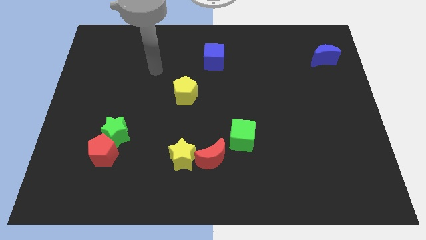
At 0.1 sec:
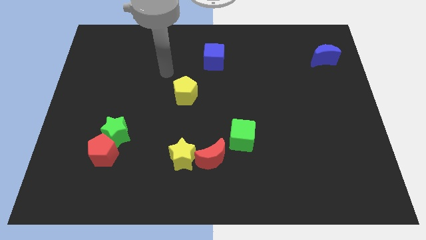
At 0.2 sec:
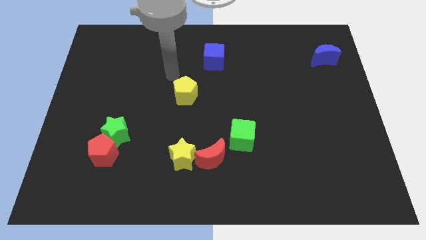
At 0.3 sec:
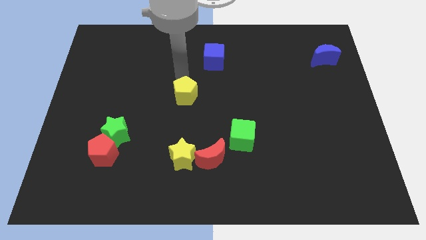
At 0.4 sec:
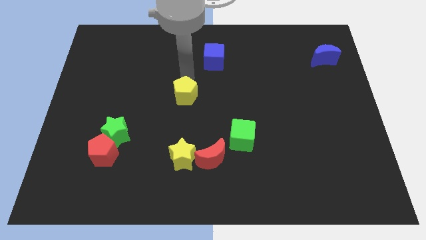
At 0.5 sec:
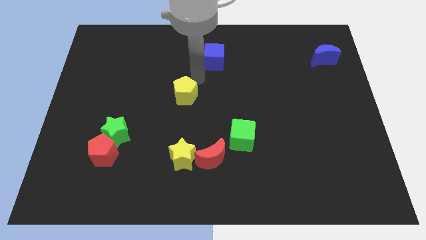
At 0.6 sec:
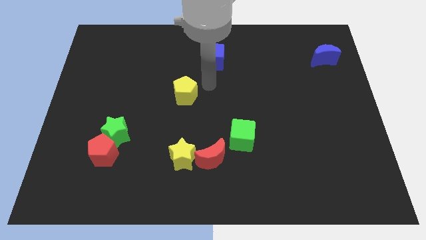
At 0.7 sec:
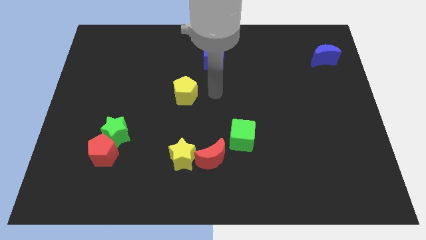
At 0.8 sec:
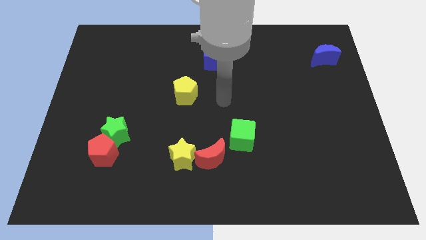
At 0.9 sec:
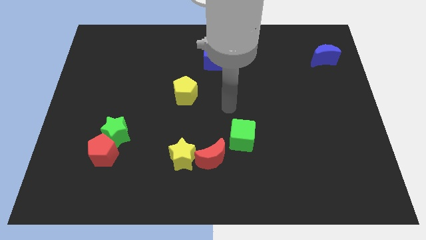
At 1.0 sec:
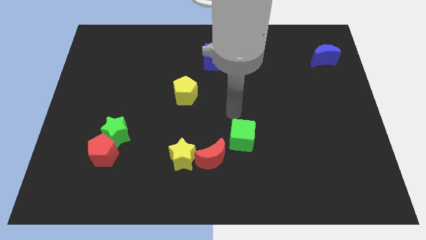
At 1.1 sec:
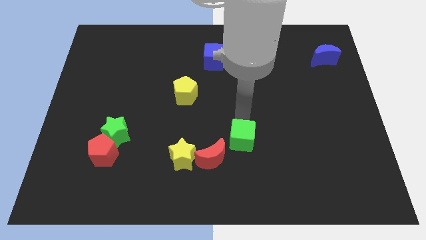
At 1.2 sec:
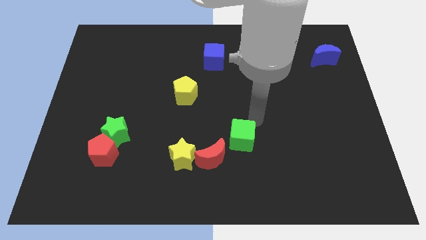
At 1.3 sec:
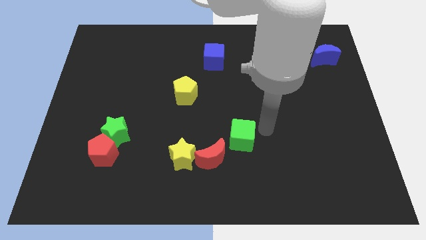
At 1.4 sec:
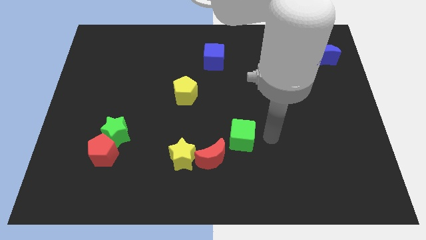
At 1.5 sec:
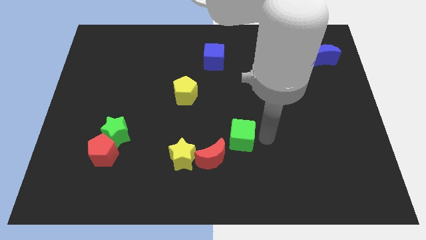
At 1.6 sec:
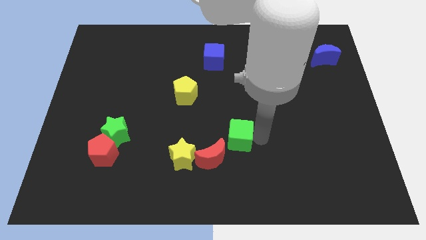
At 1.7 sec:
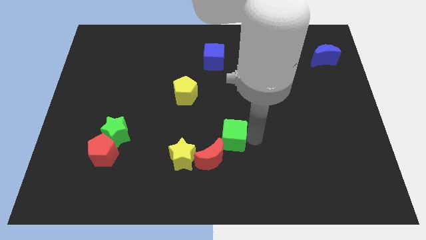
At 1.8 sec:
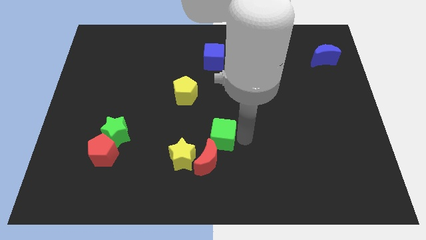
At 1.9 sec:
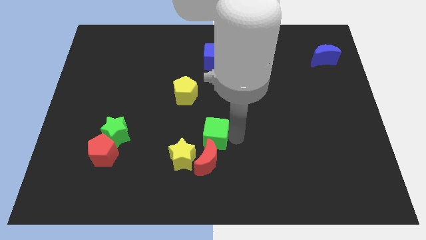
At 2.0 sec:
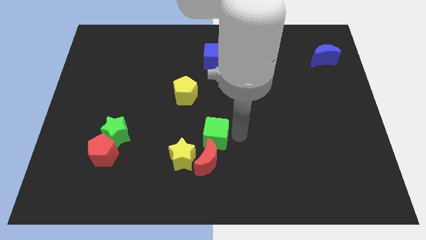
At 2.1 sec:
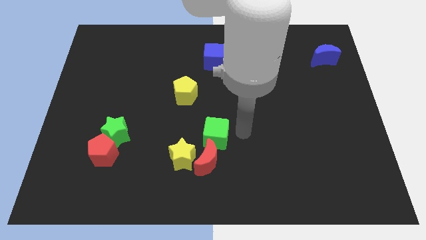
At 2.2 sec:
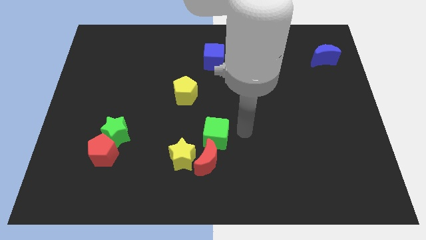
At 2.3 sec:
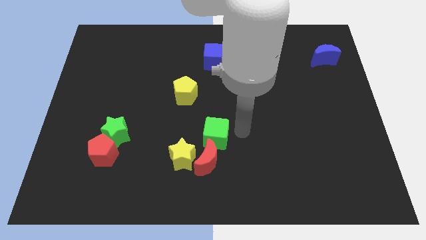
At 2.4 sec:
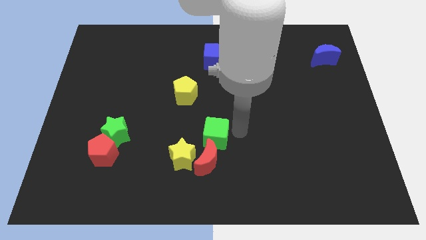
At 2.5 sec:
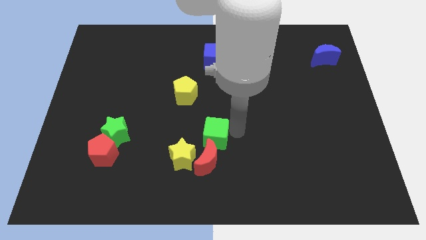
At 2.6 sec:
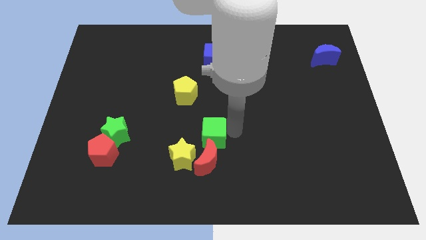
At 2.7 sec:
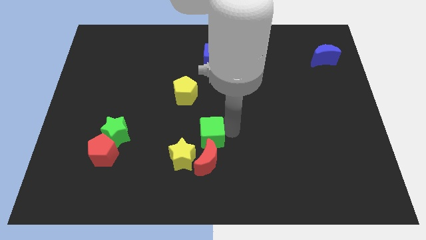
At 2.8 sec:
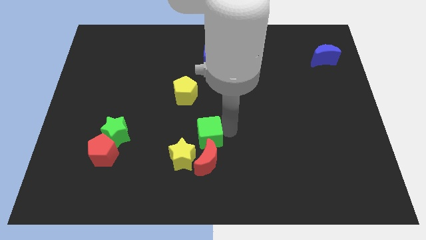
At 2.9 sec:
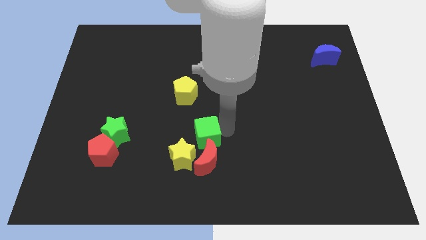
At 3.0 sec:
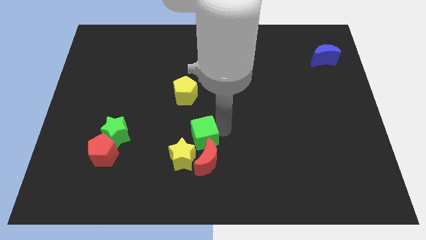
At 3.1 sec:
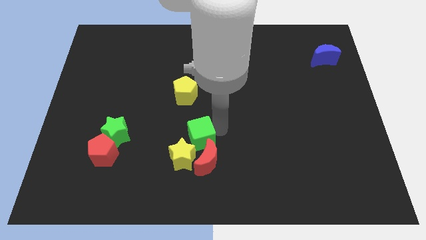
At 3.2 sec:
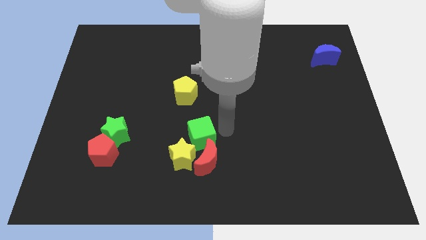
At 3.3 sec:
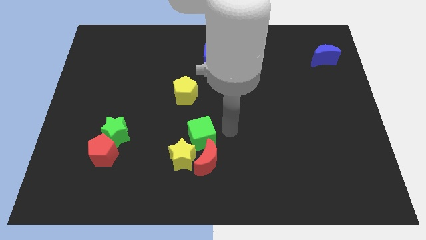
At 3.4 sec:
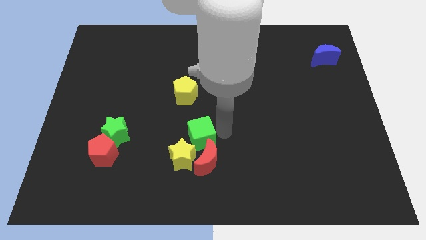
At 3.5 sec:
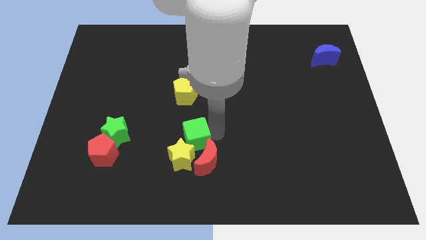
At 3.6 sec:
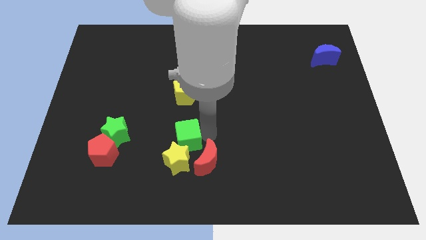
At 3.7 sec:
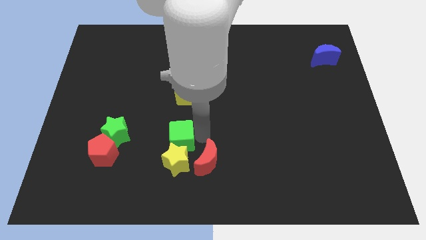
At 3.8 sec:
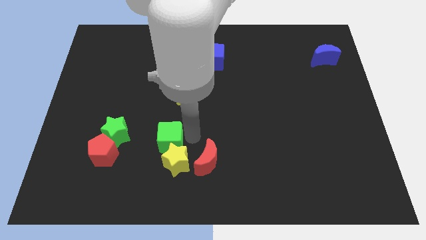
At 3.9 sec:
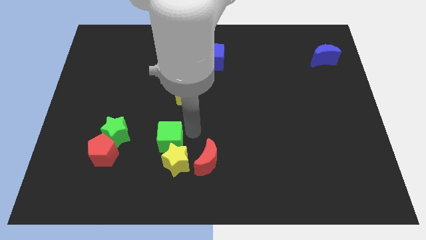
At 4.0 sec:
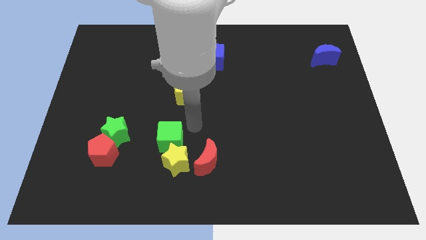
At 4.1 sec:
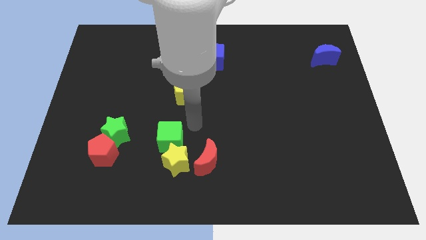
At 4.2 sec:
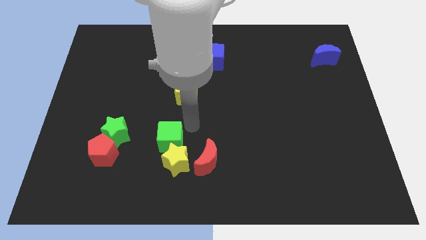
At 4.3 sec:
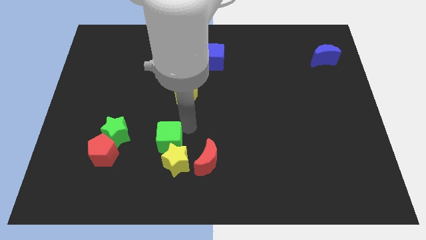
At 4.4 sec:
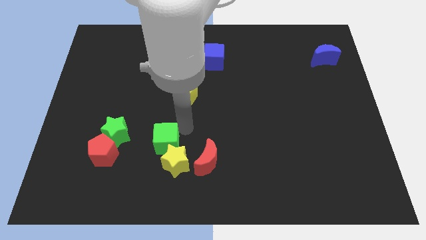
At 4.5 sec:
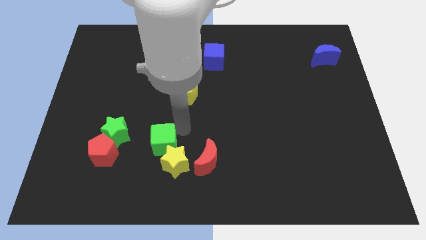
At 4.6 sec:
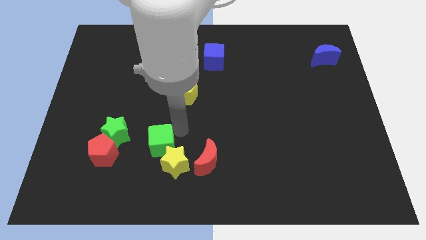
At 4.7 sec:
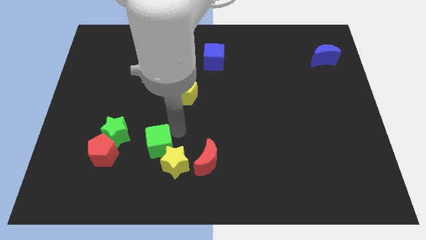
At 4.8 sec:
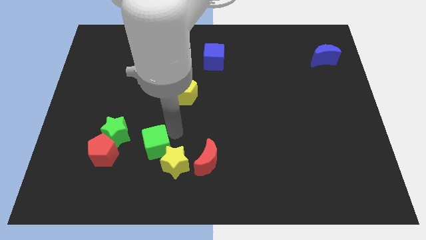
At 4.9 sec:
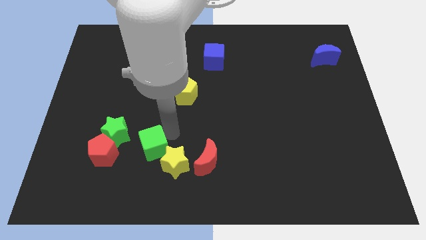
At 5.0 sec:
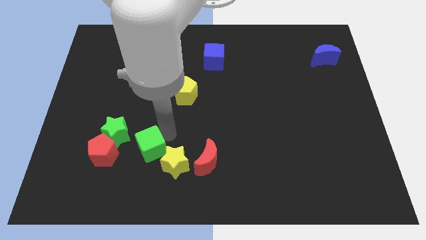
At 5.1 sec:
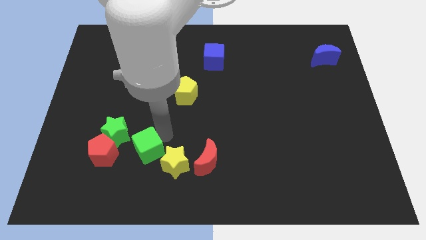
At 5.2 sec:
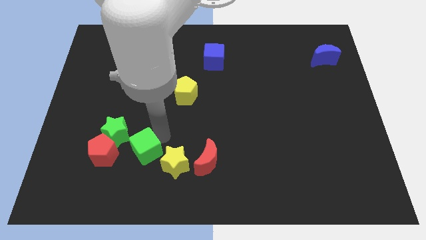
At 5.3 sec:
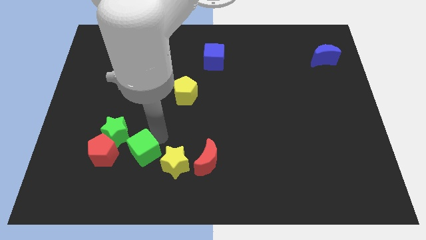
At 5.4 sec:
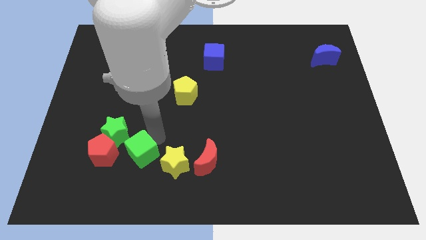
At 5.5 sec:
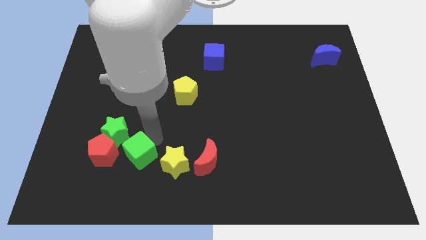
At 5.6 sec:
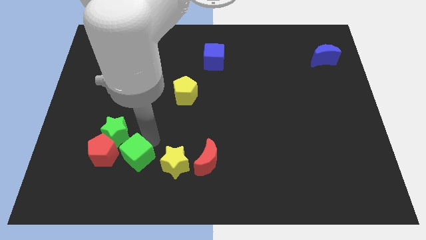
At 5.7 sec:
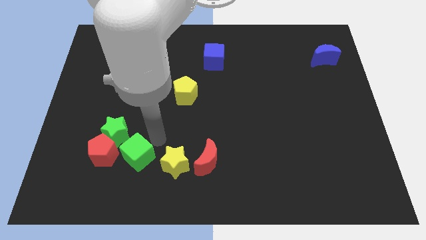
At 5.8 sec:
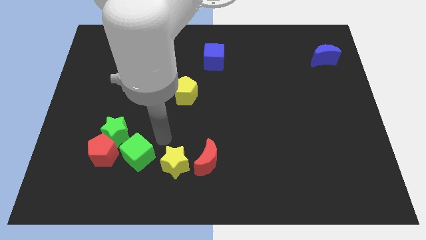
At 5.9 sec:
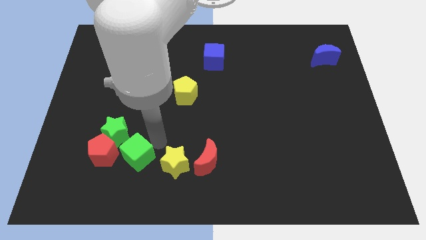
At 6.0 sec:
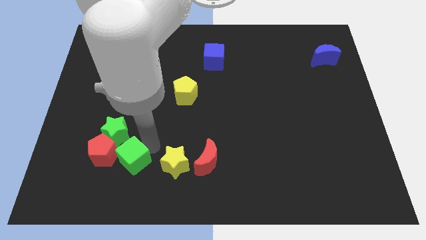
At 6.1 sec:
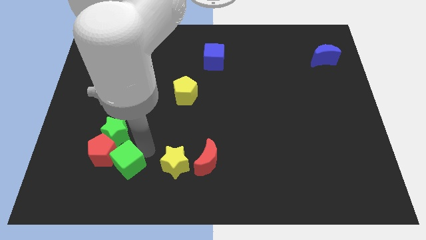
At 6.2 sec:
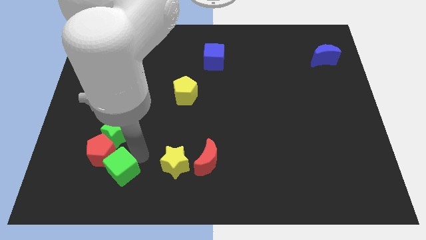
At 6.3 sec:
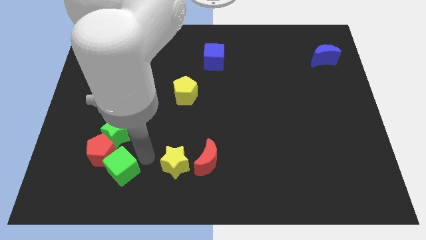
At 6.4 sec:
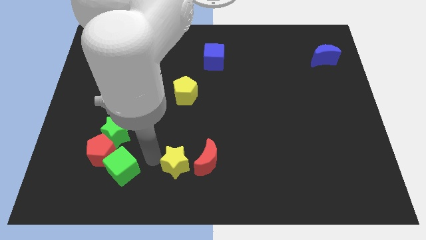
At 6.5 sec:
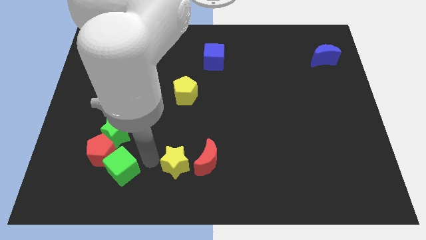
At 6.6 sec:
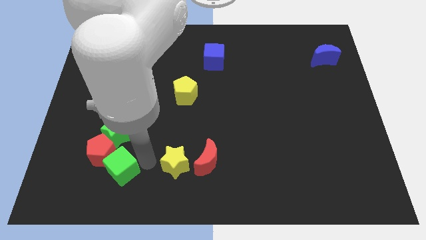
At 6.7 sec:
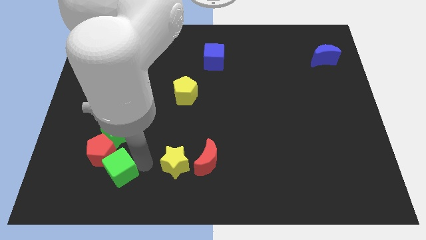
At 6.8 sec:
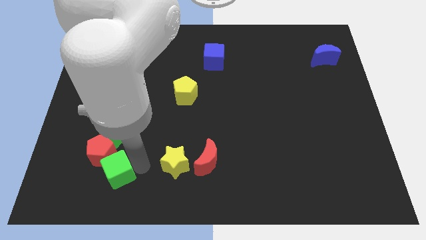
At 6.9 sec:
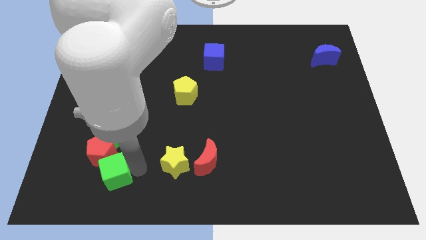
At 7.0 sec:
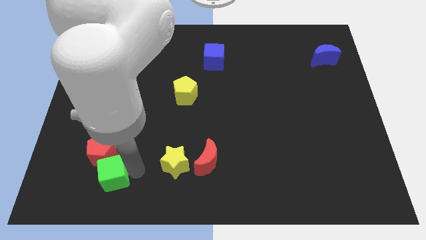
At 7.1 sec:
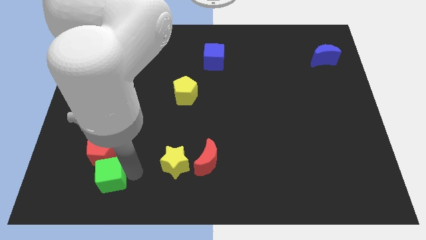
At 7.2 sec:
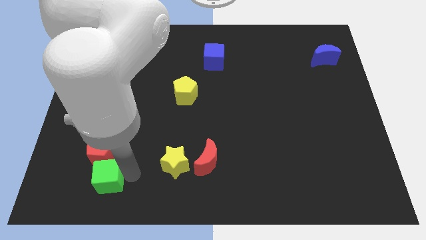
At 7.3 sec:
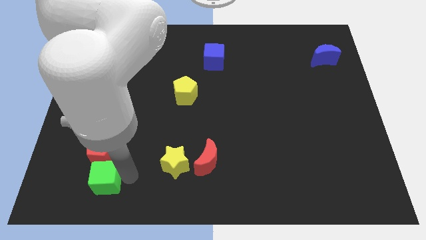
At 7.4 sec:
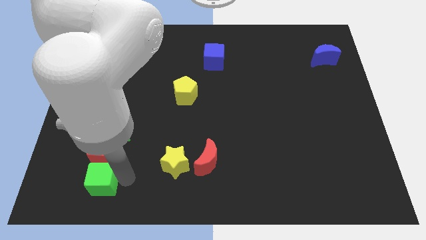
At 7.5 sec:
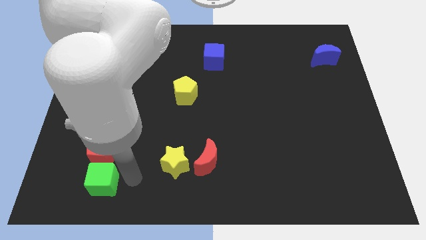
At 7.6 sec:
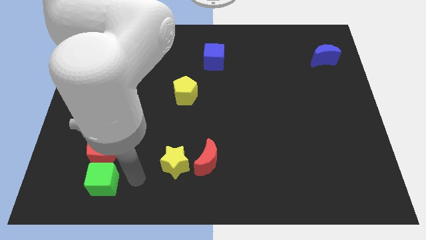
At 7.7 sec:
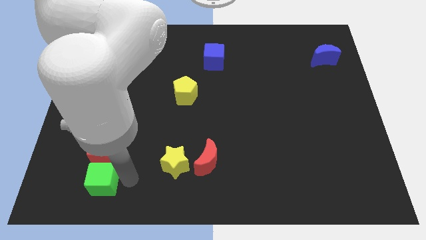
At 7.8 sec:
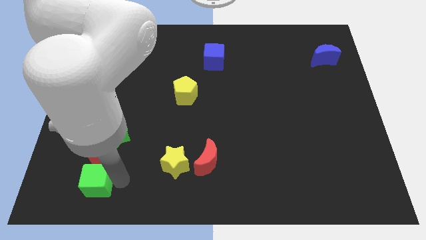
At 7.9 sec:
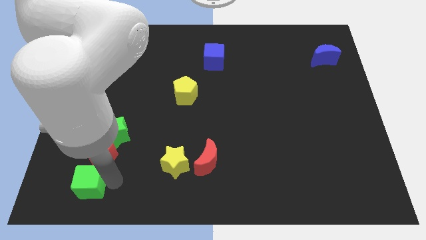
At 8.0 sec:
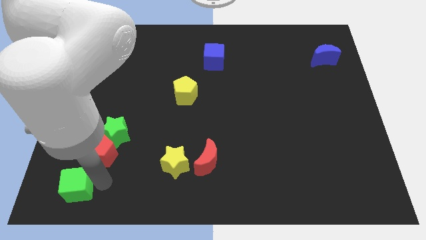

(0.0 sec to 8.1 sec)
slide the green cube to the bottom left of the board
